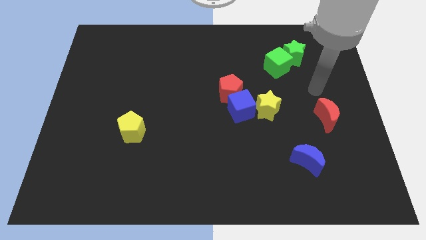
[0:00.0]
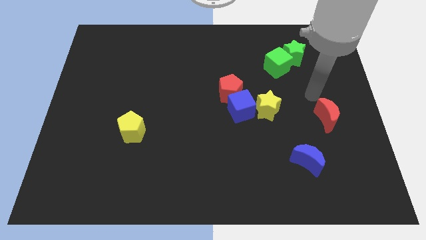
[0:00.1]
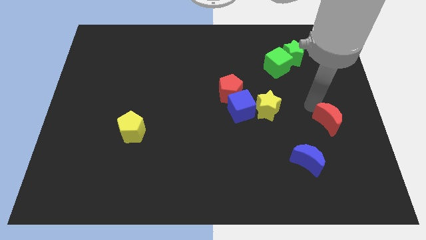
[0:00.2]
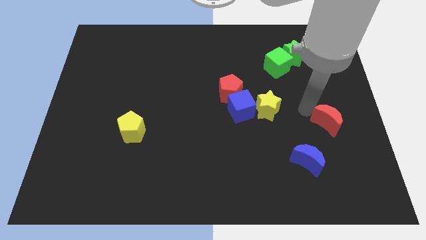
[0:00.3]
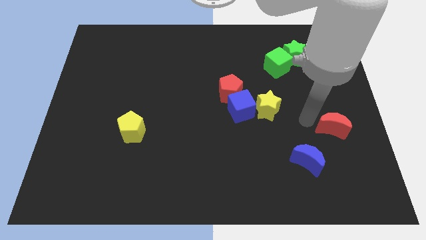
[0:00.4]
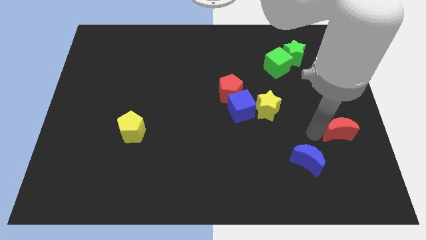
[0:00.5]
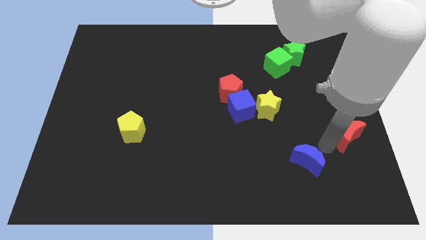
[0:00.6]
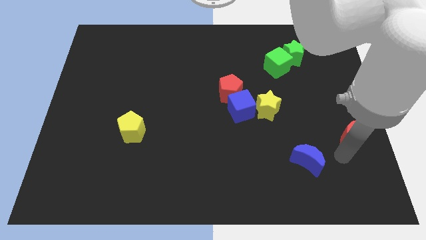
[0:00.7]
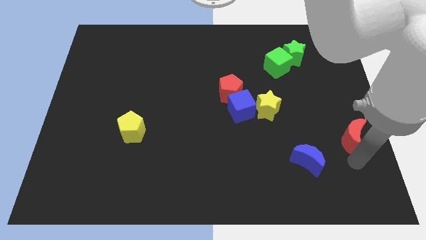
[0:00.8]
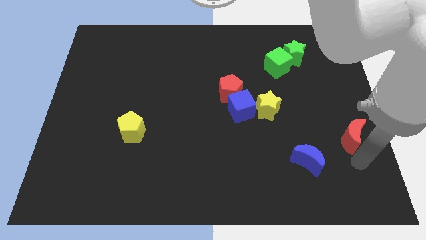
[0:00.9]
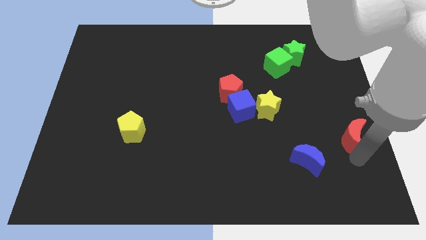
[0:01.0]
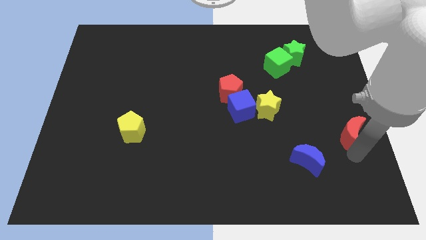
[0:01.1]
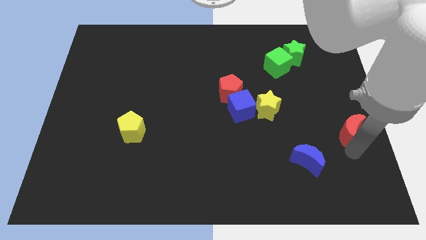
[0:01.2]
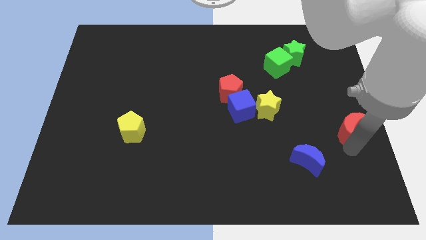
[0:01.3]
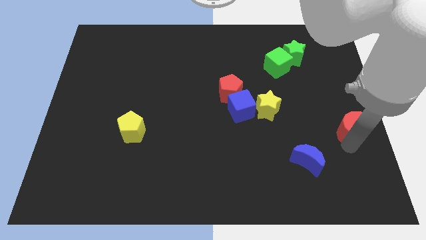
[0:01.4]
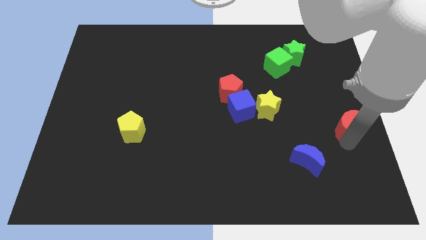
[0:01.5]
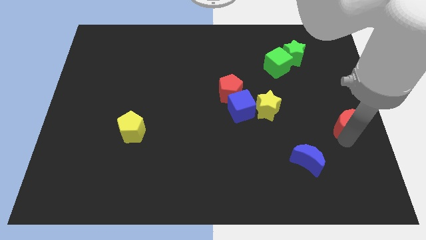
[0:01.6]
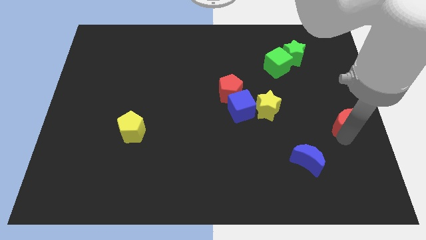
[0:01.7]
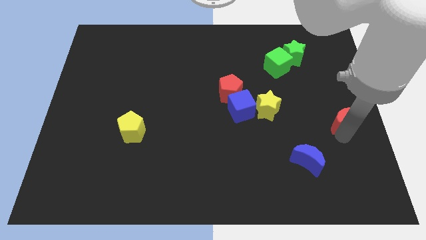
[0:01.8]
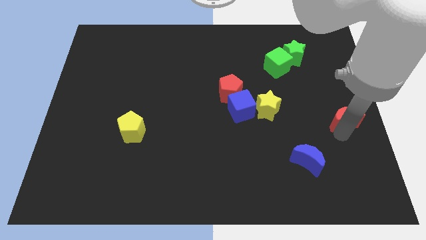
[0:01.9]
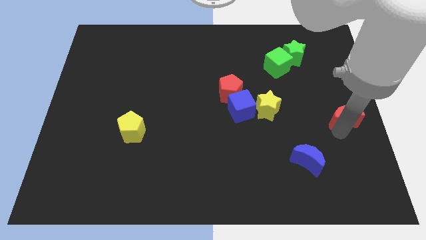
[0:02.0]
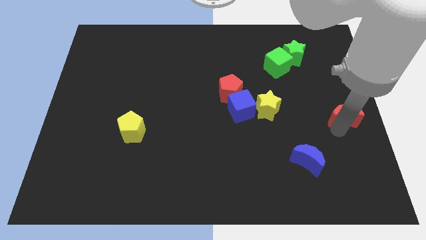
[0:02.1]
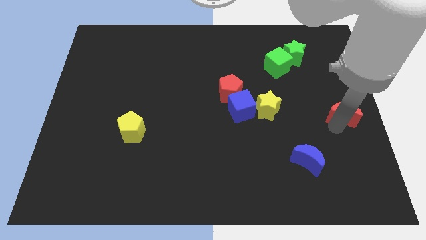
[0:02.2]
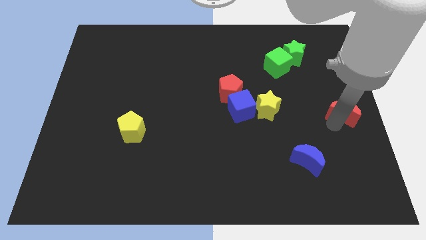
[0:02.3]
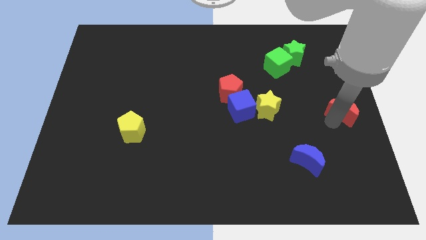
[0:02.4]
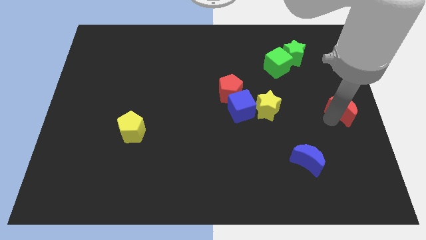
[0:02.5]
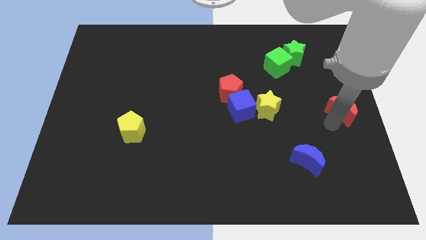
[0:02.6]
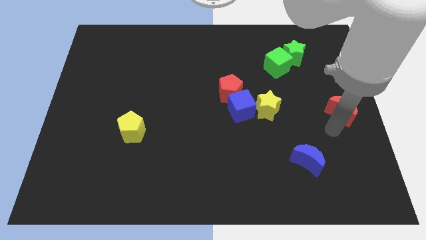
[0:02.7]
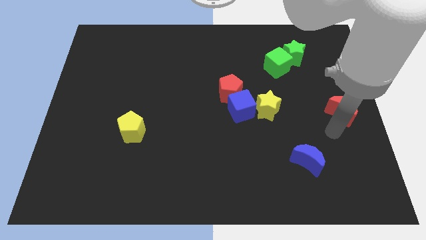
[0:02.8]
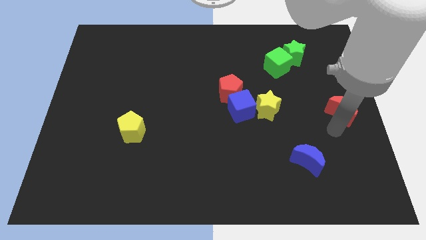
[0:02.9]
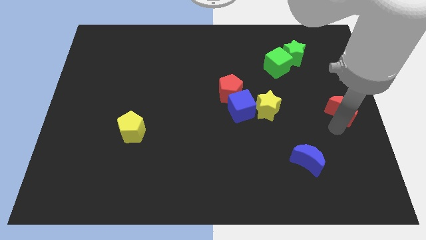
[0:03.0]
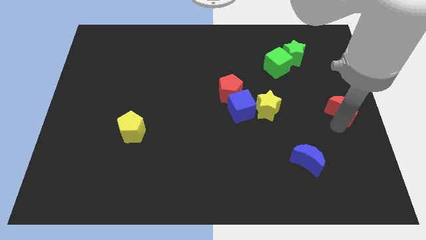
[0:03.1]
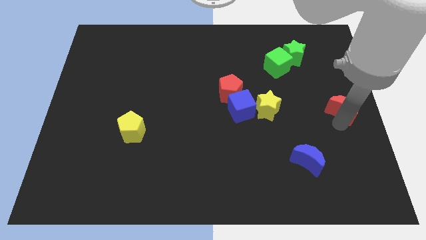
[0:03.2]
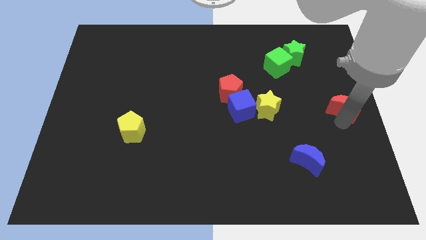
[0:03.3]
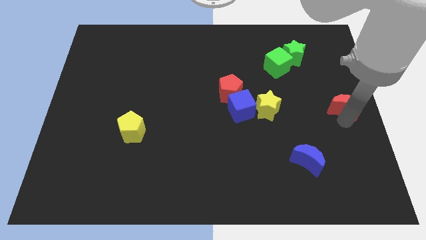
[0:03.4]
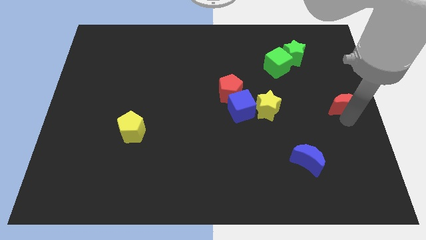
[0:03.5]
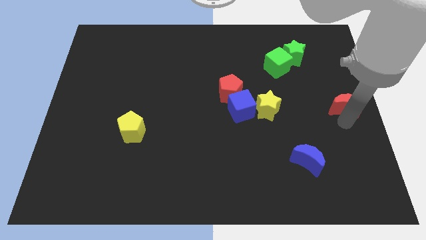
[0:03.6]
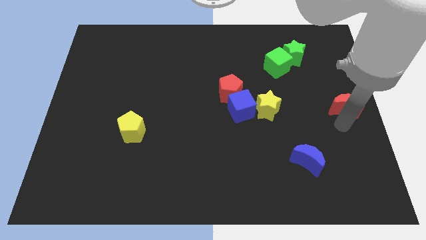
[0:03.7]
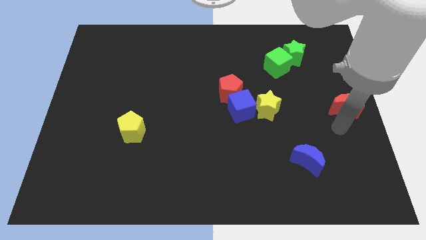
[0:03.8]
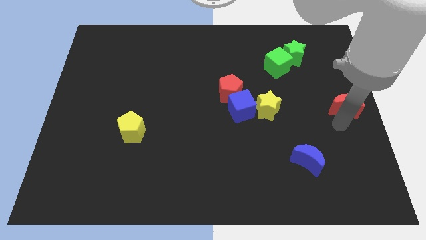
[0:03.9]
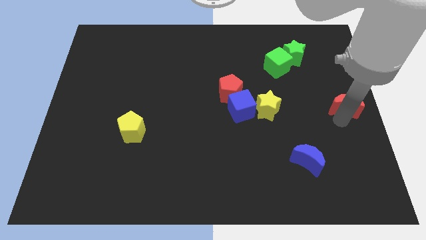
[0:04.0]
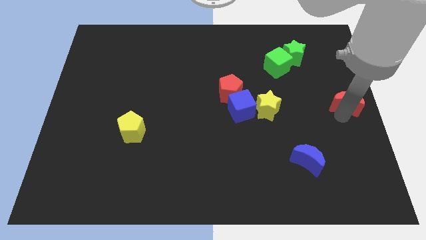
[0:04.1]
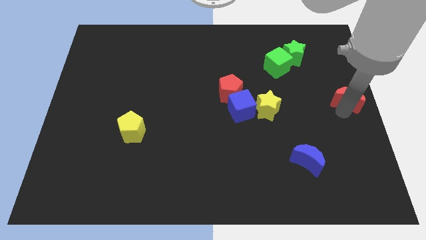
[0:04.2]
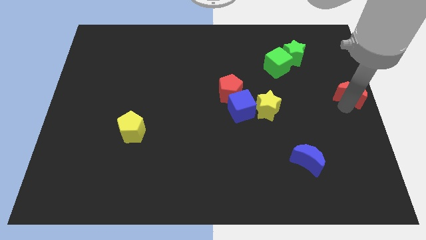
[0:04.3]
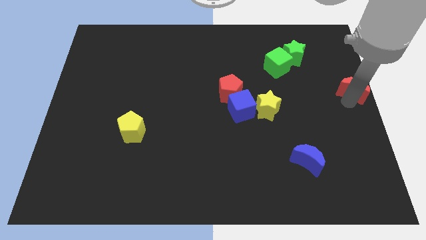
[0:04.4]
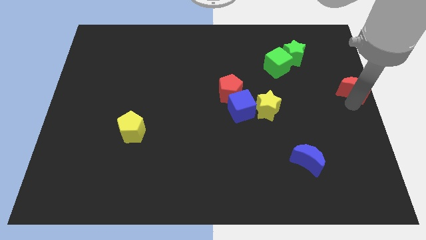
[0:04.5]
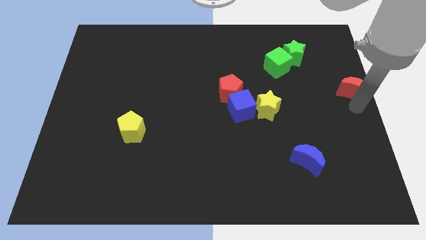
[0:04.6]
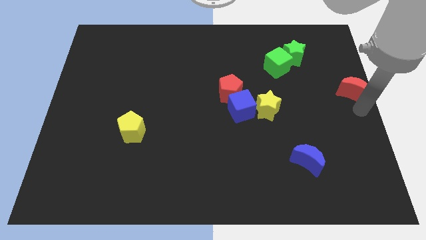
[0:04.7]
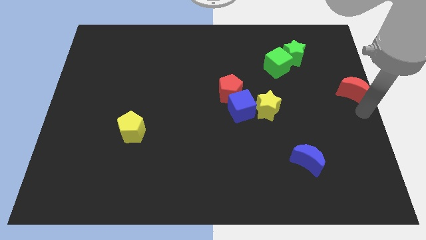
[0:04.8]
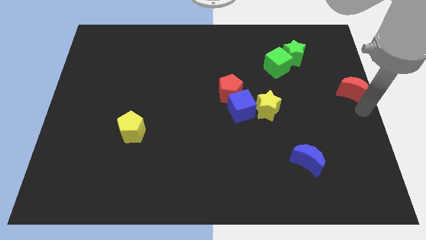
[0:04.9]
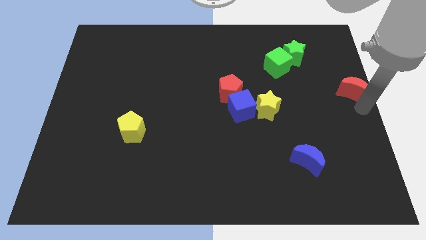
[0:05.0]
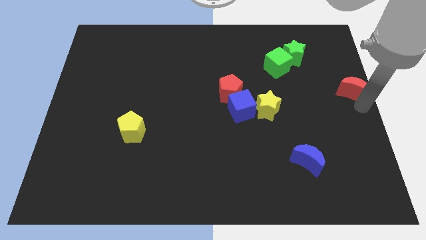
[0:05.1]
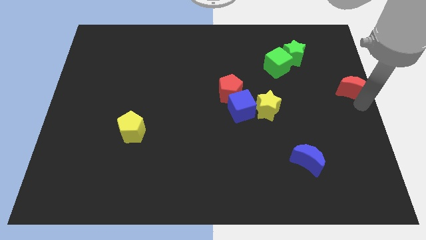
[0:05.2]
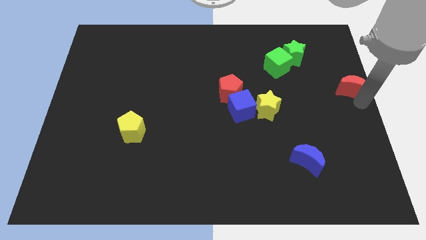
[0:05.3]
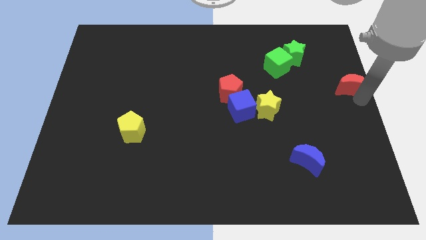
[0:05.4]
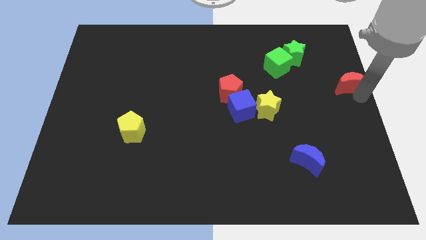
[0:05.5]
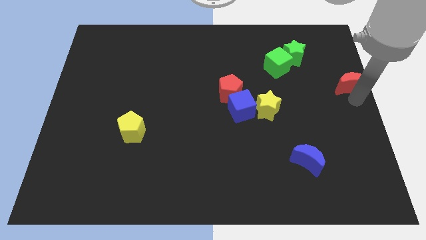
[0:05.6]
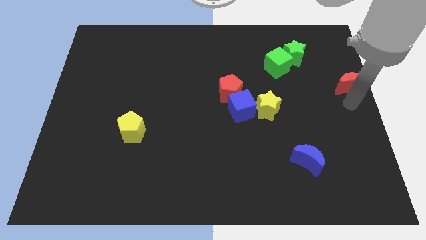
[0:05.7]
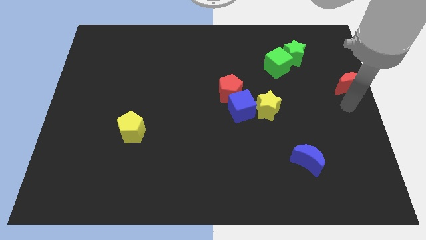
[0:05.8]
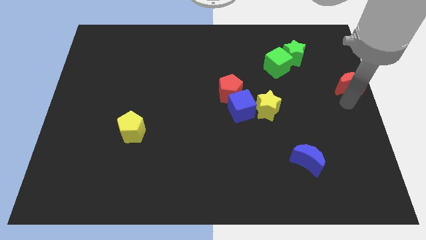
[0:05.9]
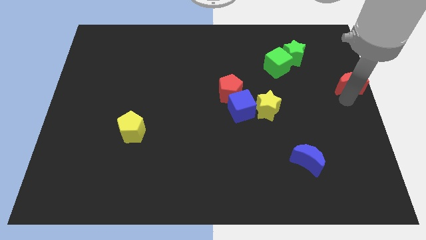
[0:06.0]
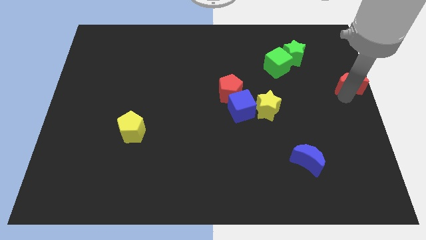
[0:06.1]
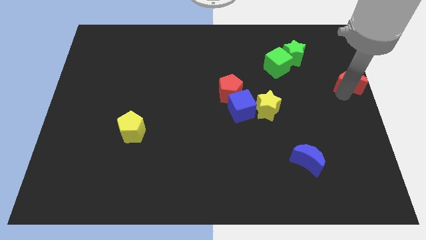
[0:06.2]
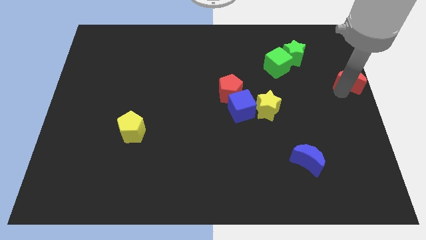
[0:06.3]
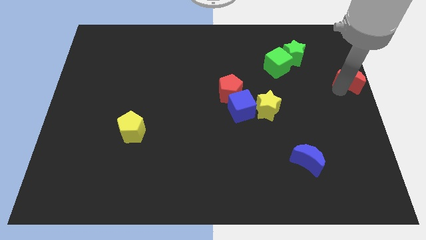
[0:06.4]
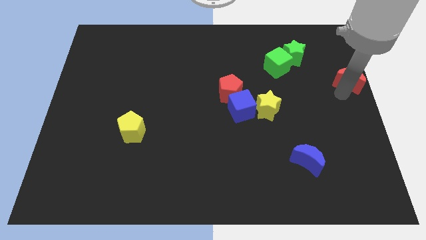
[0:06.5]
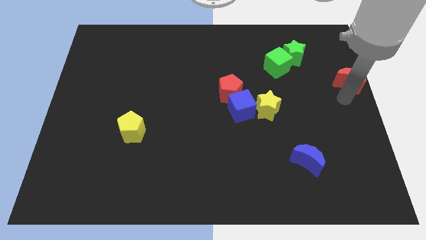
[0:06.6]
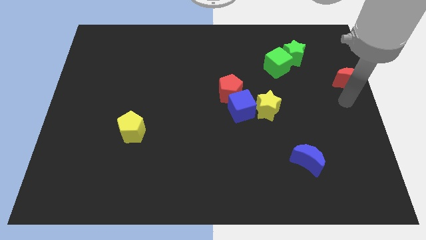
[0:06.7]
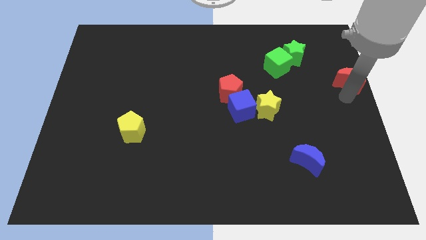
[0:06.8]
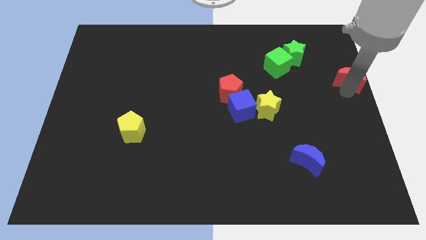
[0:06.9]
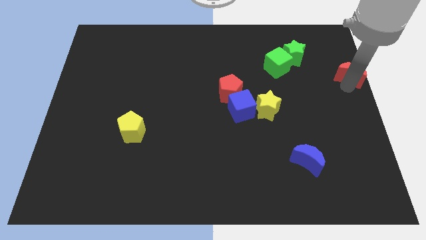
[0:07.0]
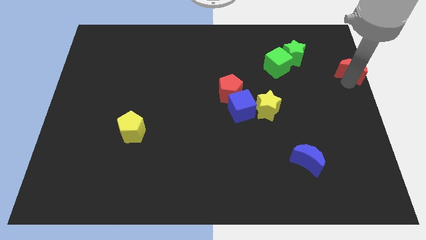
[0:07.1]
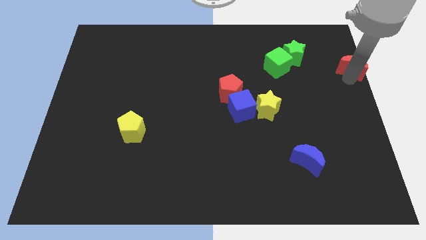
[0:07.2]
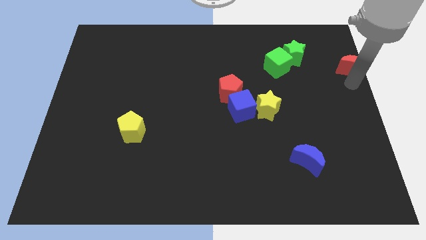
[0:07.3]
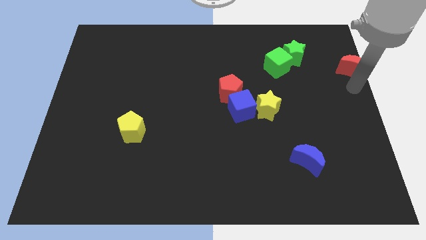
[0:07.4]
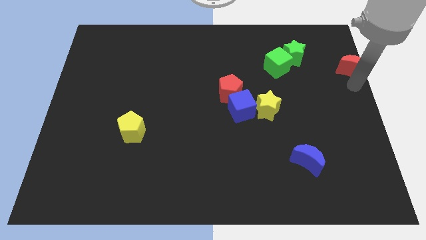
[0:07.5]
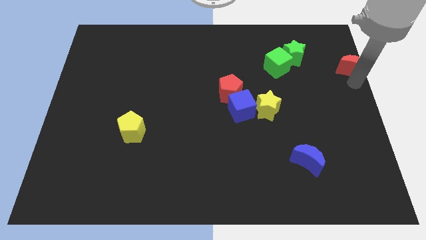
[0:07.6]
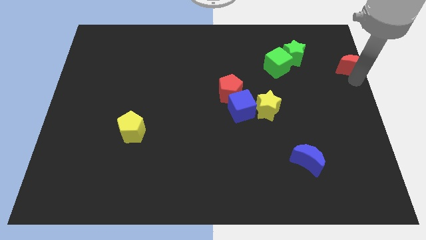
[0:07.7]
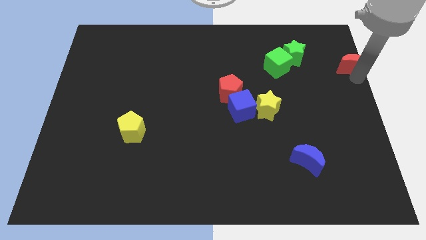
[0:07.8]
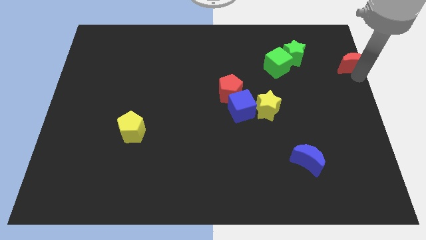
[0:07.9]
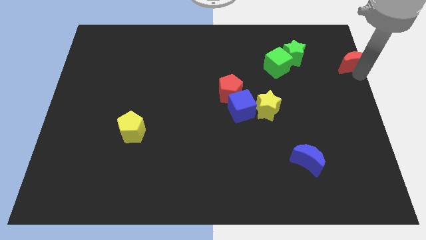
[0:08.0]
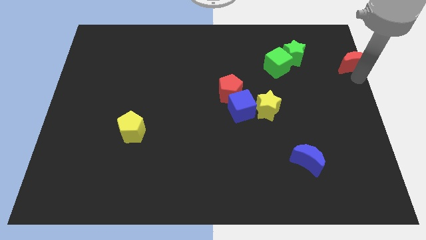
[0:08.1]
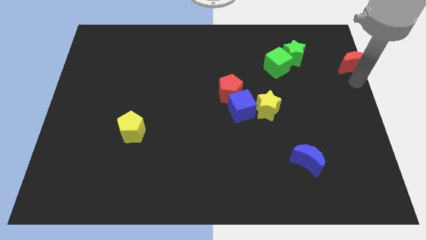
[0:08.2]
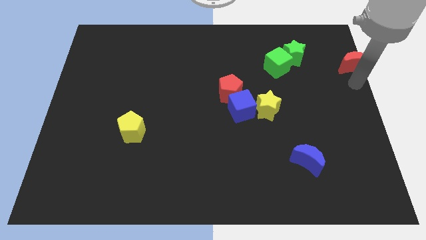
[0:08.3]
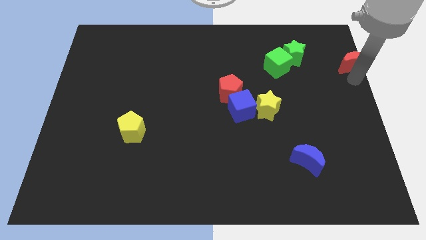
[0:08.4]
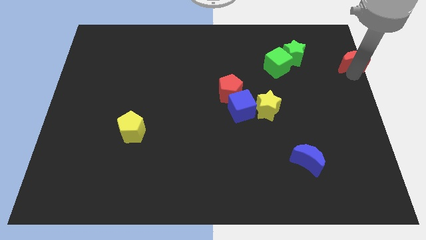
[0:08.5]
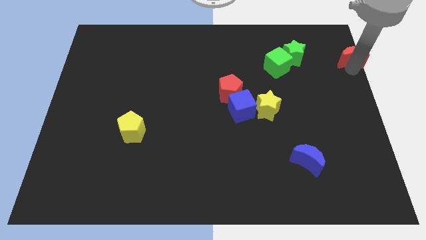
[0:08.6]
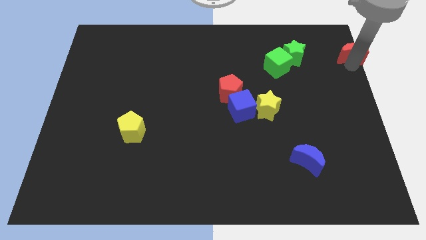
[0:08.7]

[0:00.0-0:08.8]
move the red moon to the top right of the board

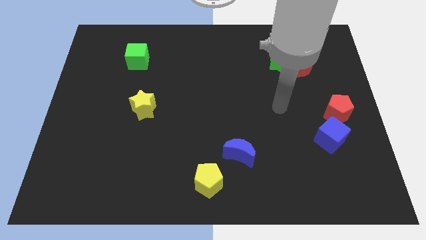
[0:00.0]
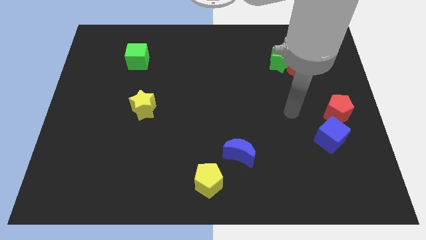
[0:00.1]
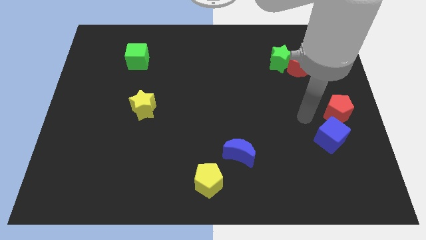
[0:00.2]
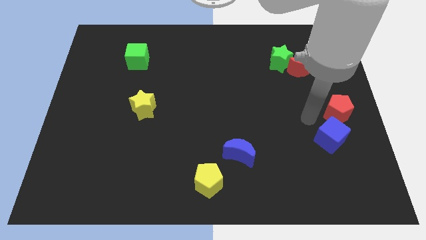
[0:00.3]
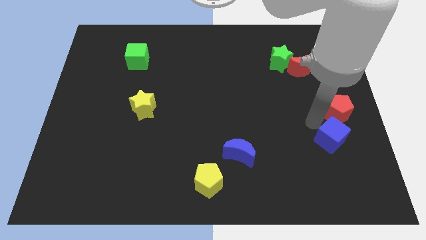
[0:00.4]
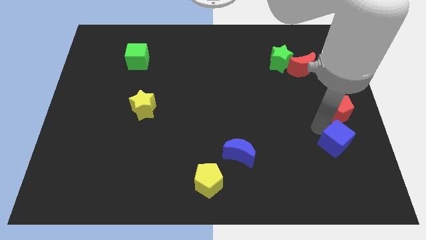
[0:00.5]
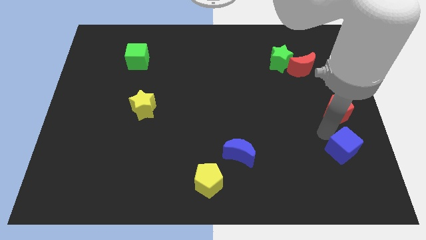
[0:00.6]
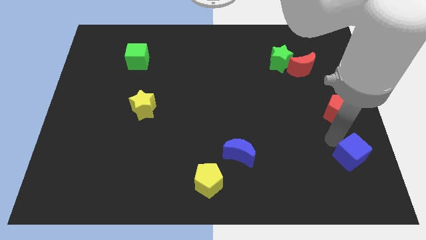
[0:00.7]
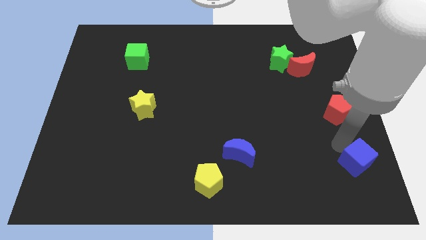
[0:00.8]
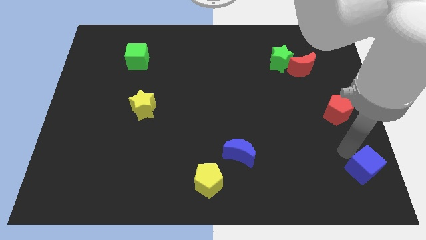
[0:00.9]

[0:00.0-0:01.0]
push the blue cube to the bottom right of the board
